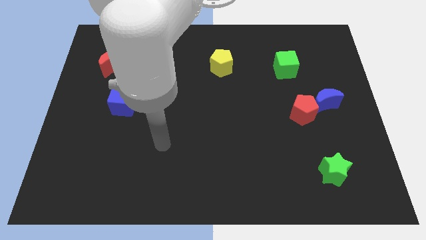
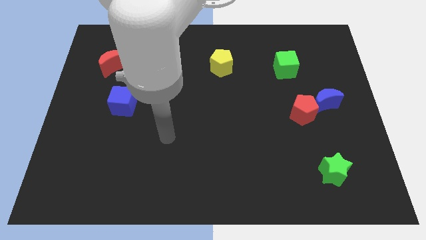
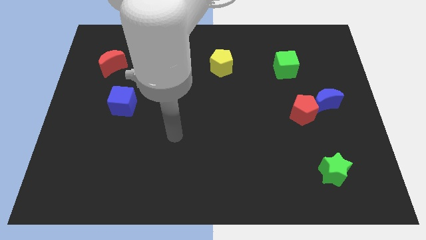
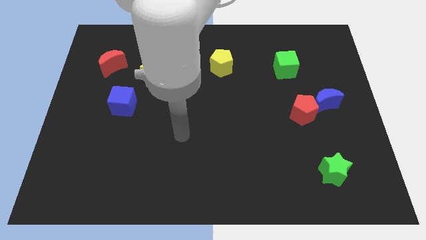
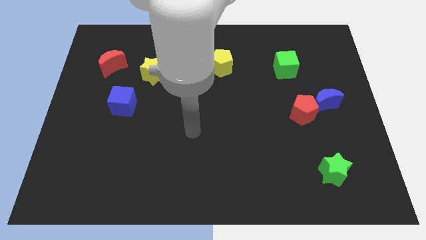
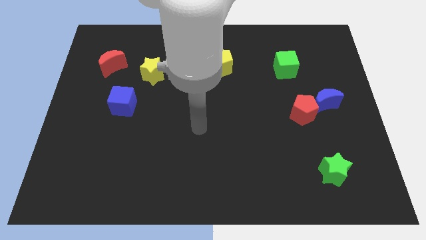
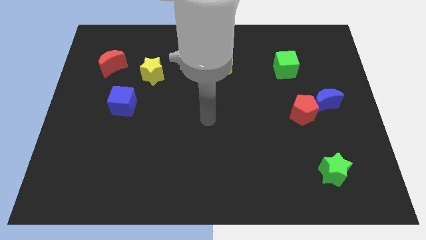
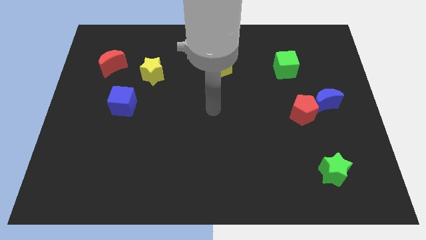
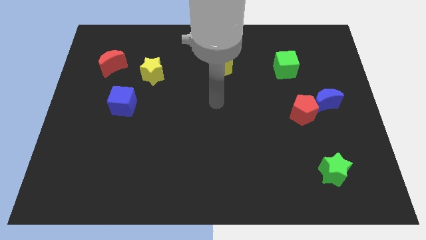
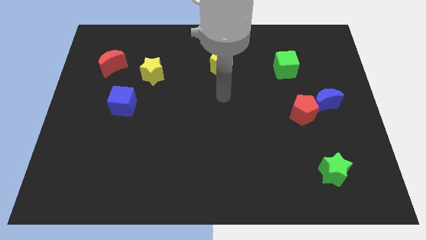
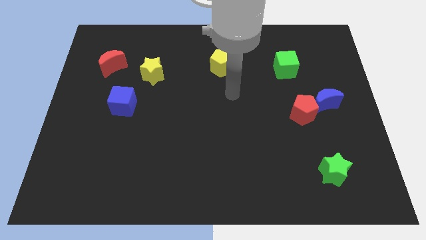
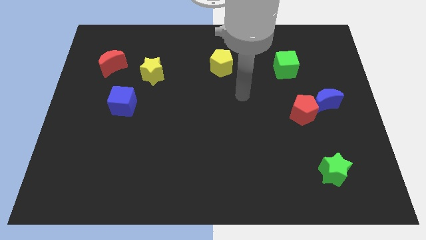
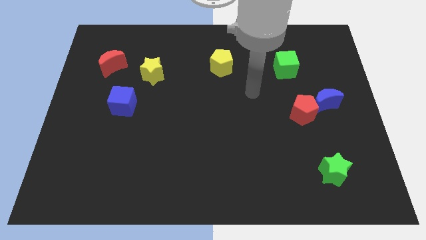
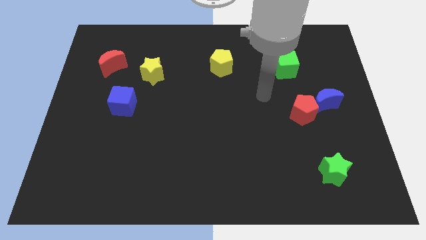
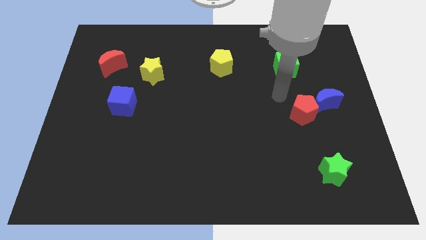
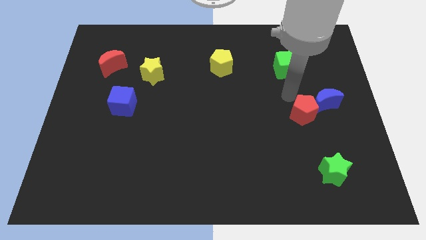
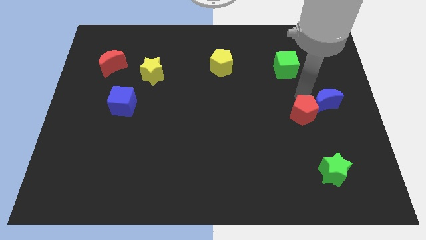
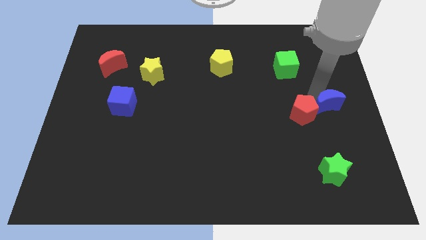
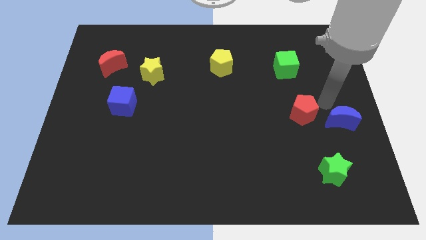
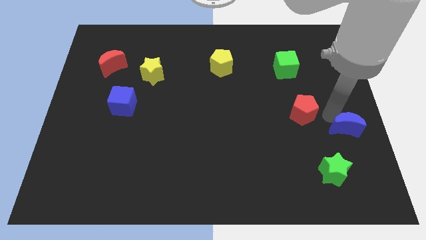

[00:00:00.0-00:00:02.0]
move the red pentagon away from the blue moon

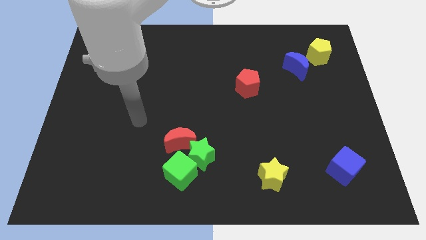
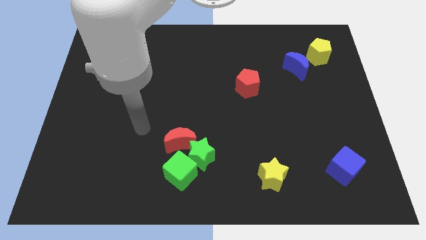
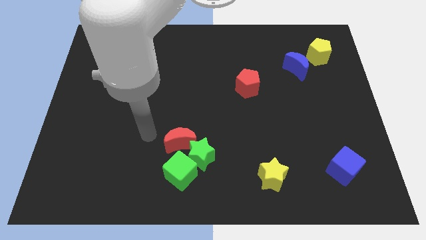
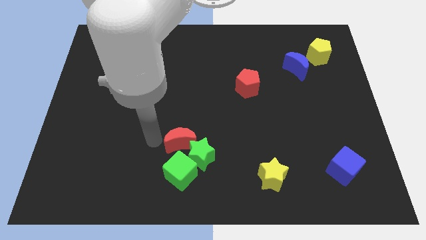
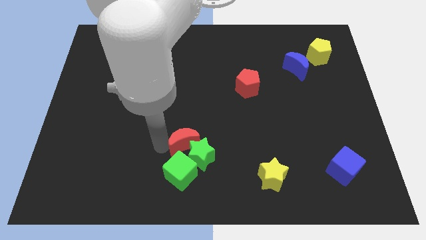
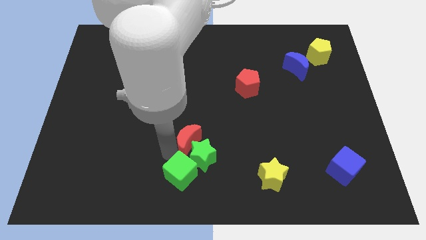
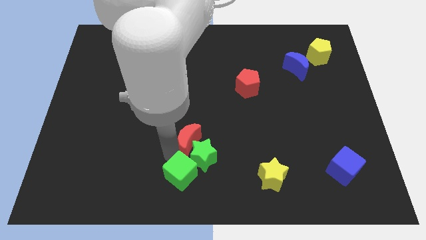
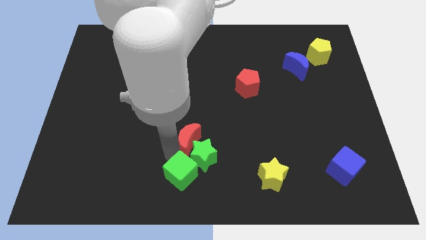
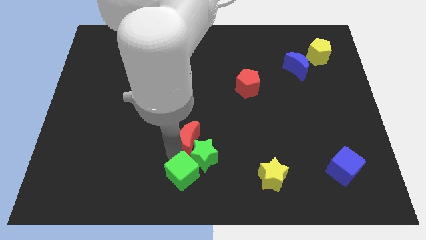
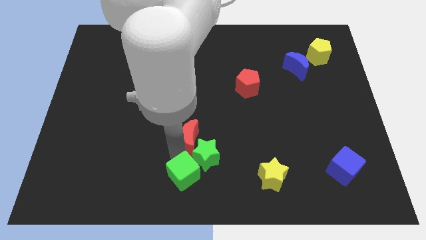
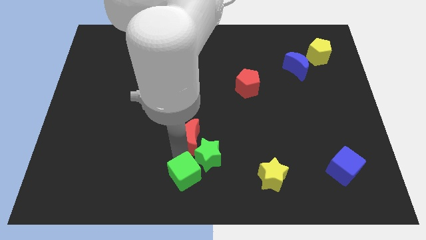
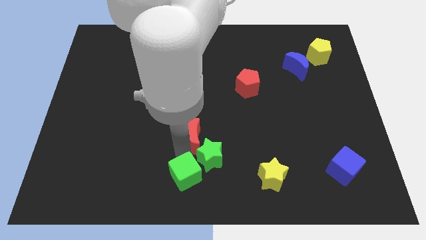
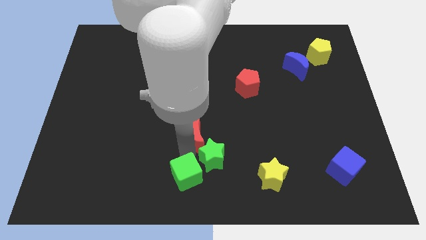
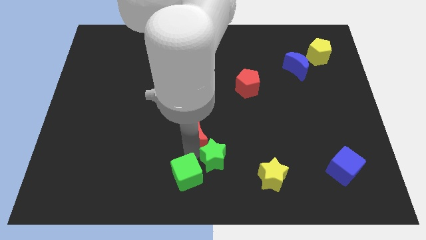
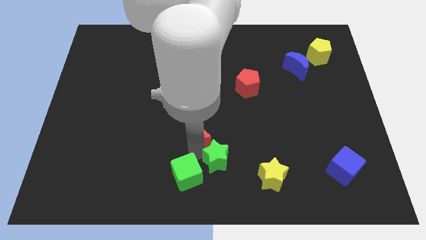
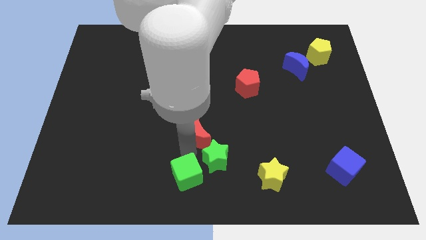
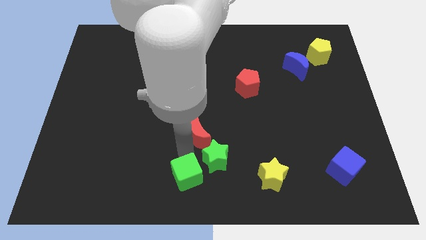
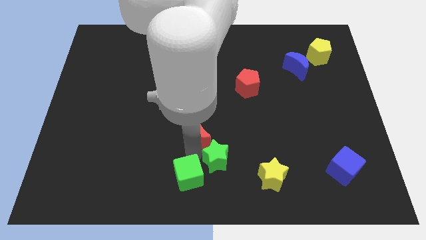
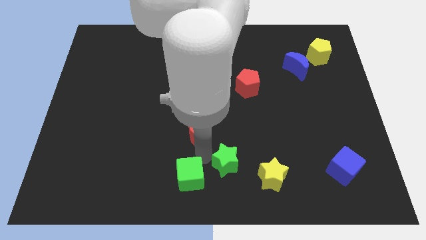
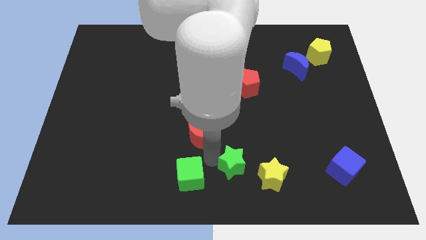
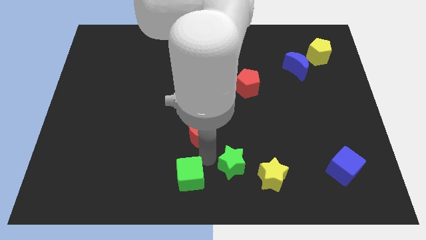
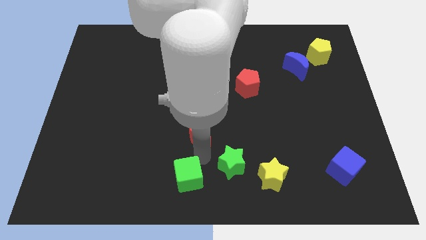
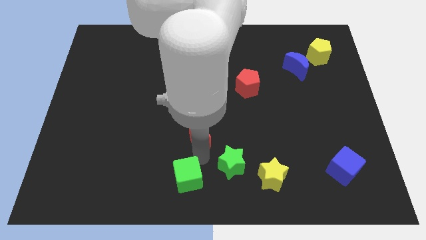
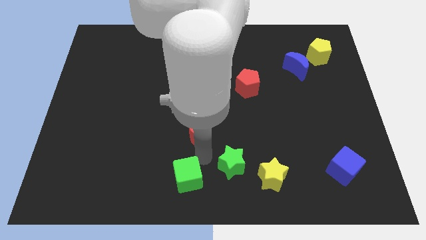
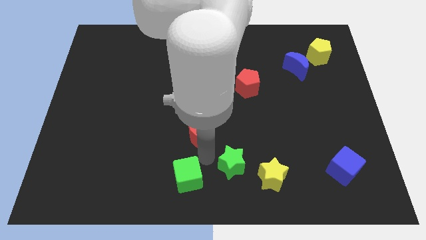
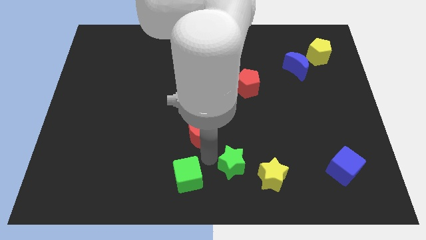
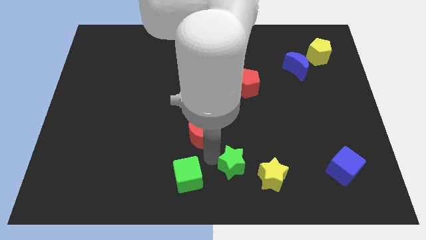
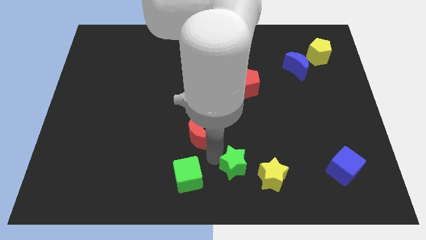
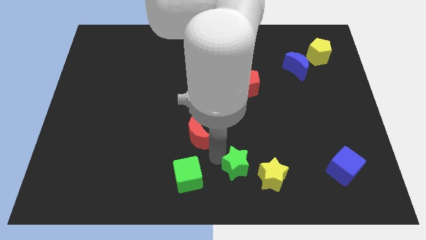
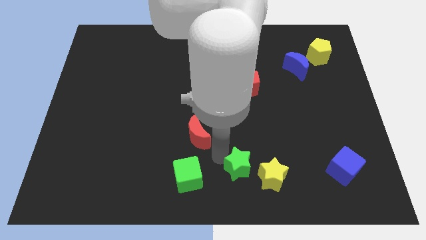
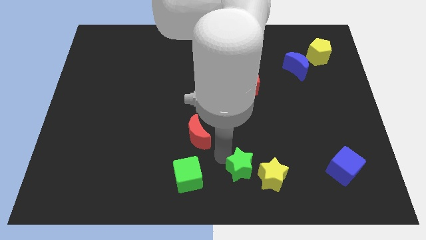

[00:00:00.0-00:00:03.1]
separate the green star from the green cube and red moon

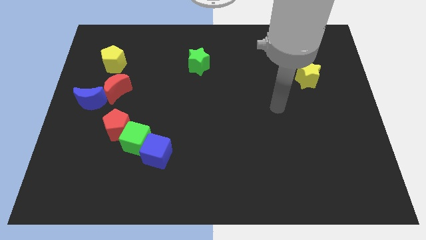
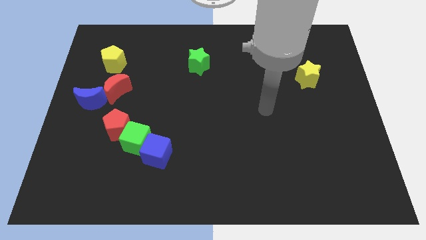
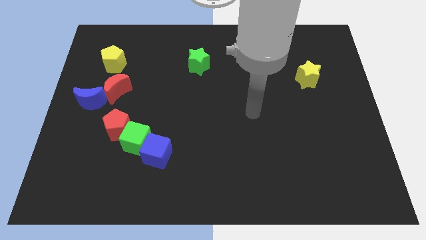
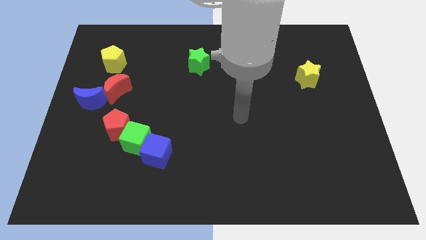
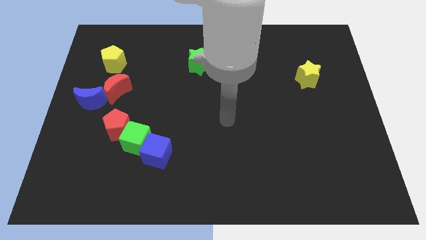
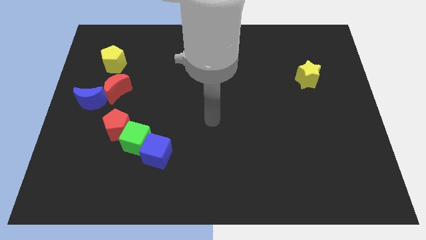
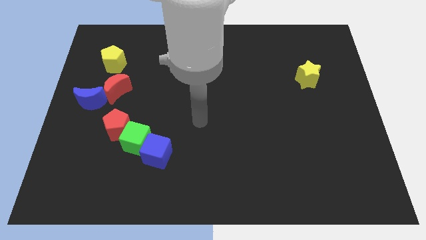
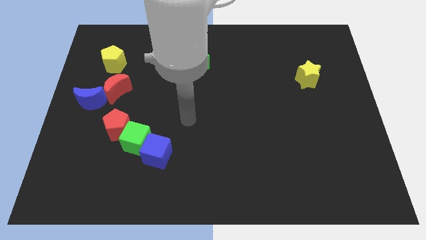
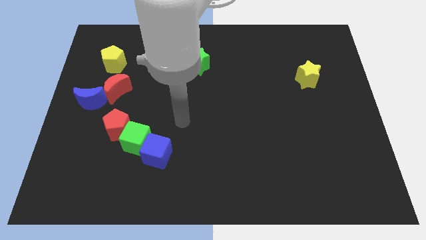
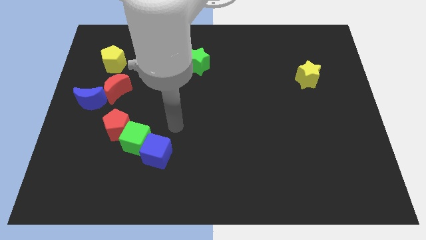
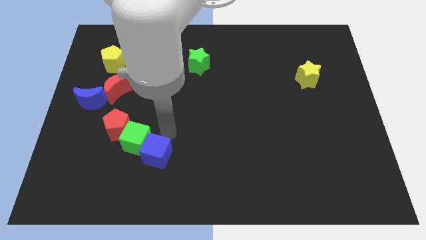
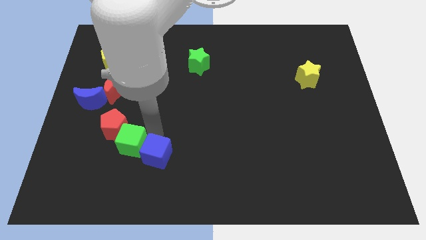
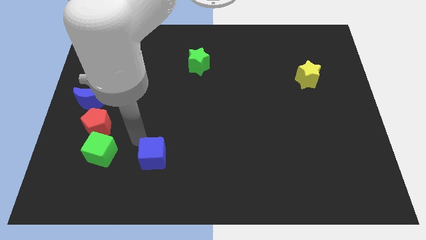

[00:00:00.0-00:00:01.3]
separate the blue cube from the green cube

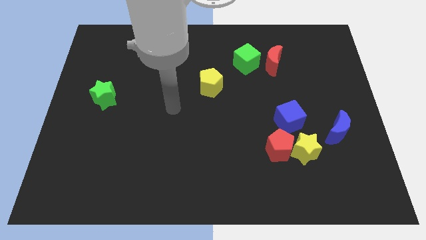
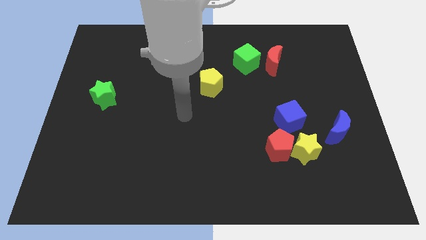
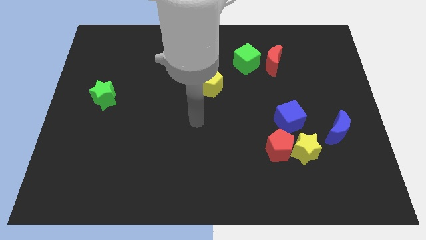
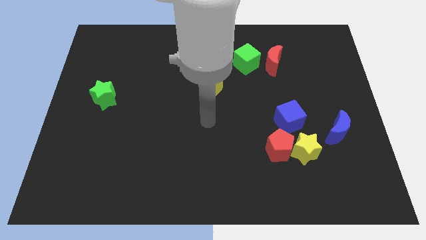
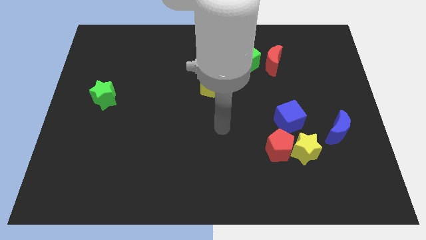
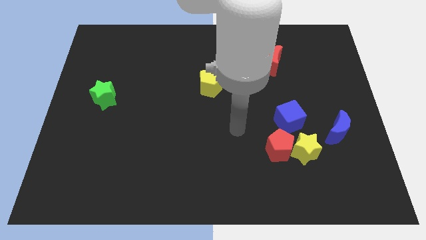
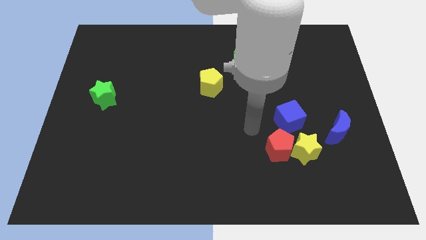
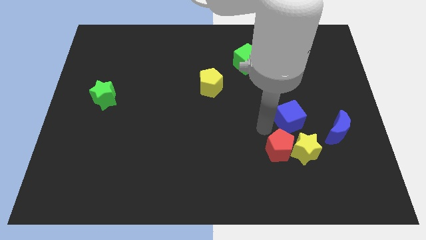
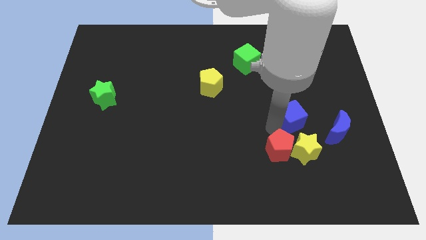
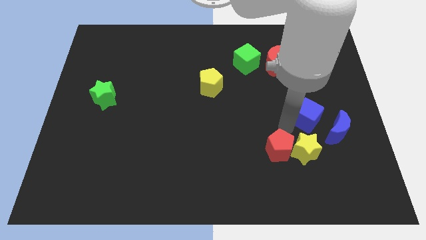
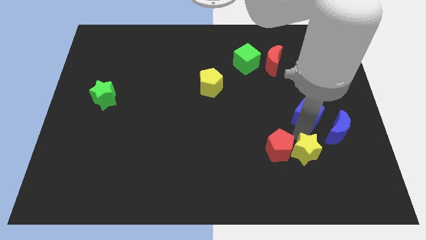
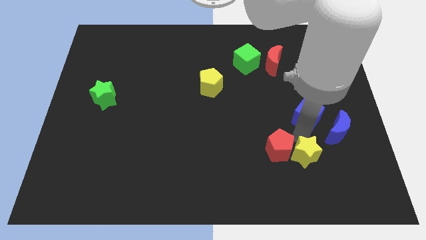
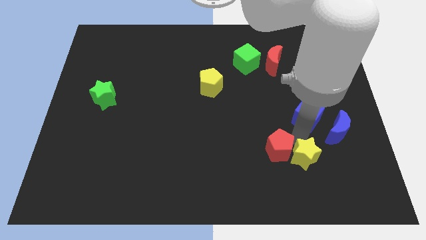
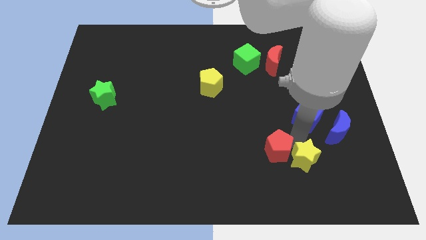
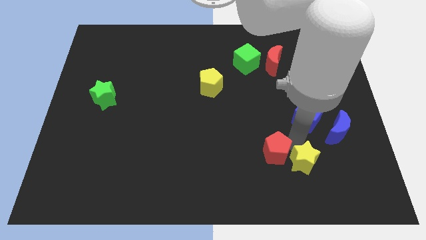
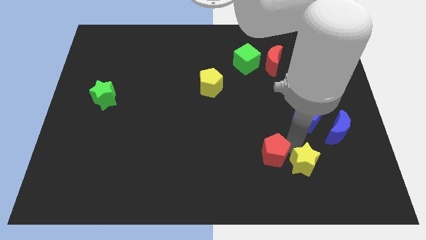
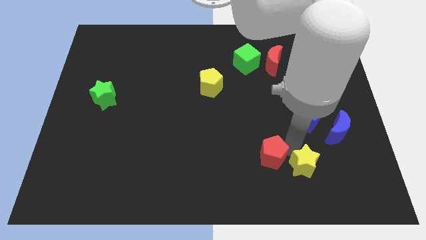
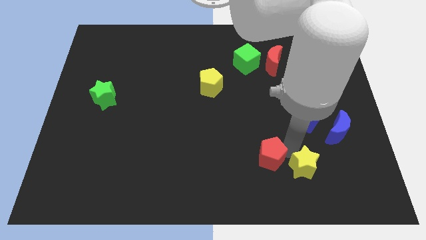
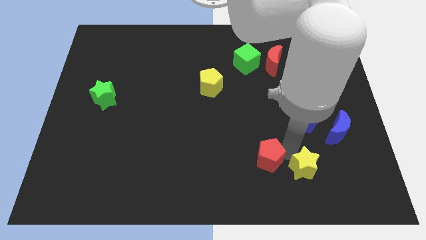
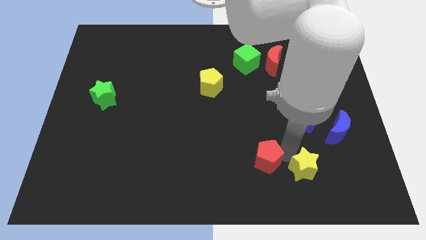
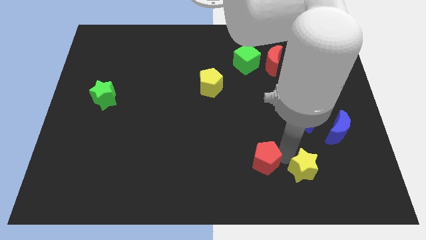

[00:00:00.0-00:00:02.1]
move the red pentagon away from the yellow star and blue cube

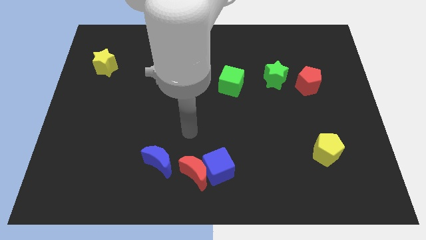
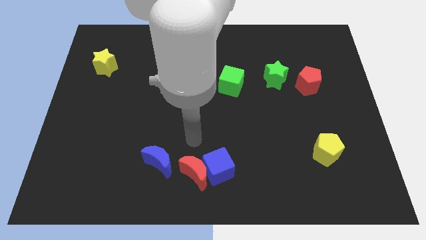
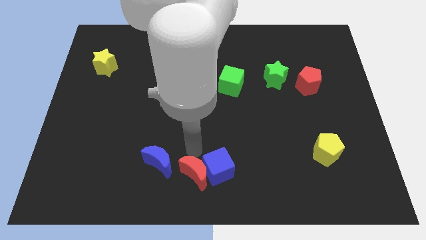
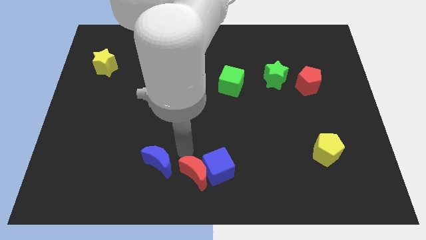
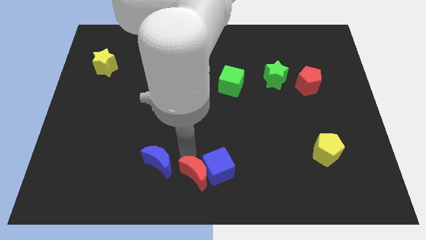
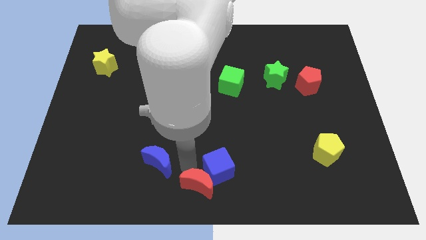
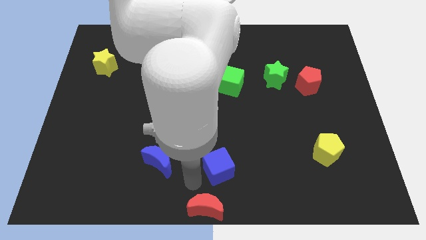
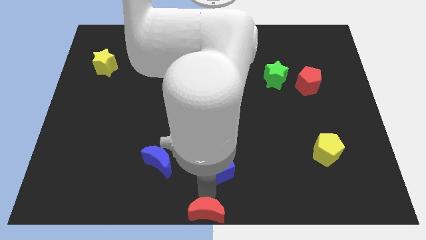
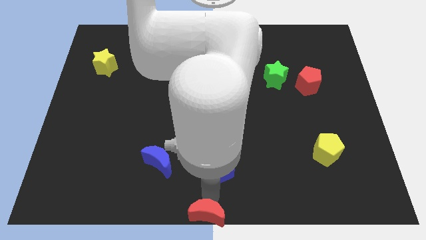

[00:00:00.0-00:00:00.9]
pull the blue cube apart from the red moon

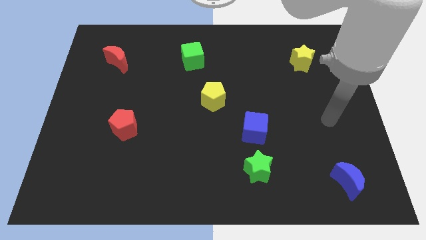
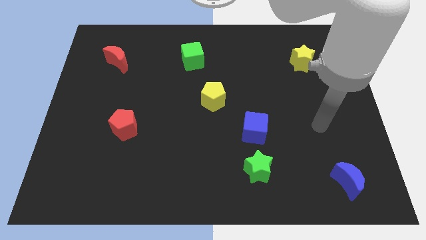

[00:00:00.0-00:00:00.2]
pull the blue cube apart from the green star
